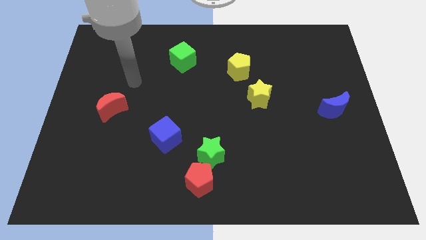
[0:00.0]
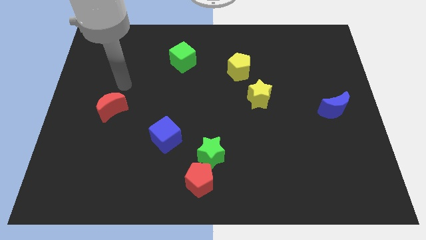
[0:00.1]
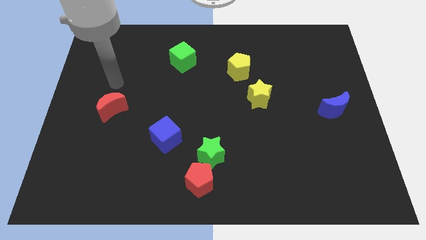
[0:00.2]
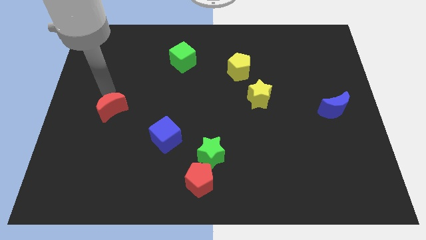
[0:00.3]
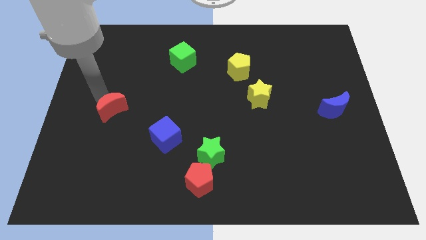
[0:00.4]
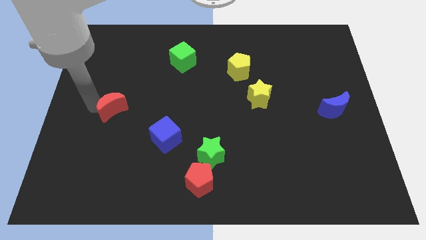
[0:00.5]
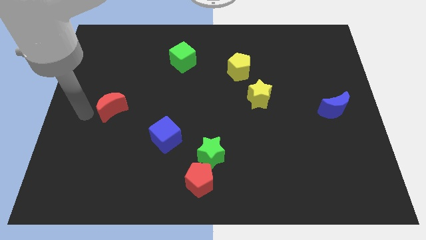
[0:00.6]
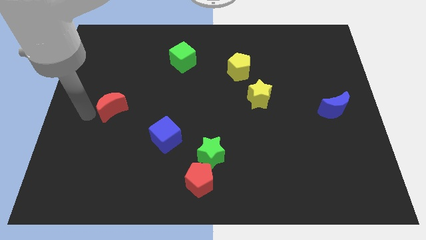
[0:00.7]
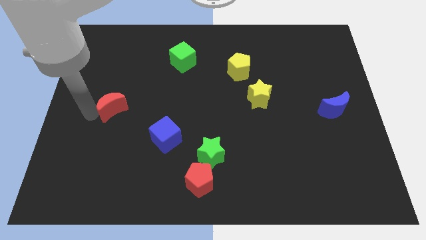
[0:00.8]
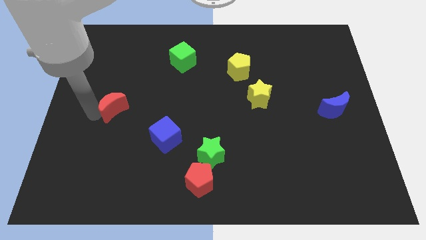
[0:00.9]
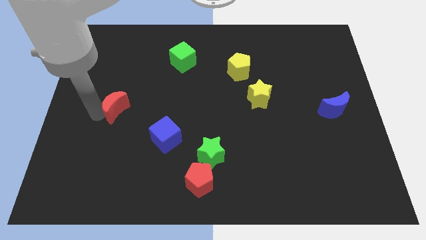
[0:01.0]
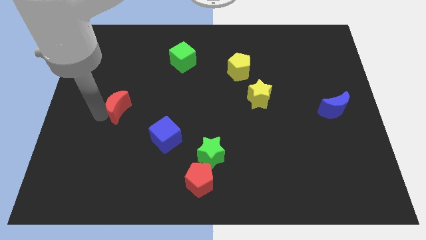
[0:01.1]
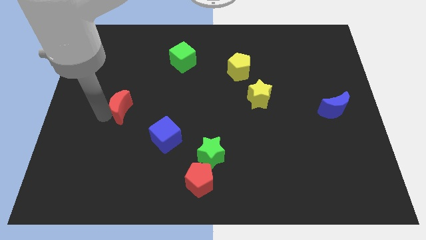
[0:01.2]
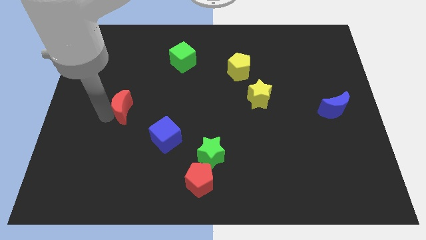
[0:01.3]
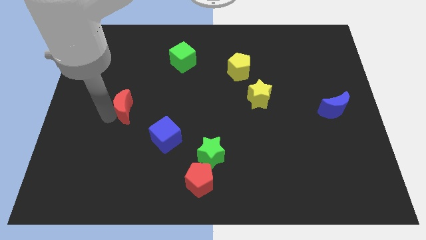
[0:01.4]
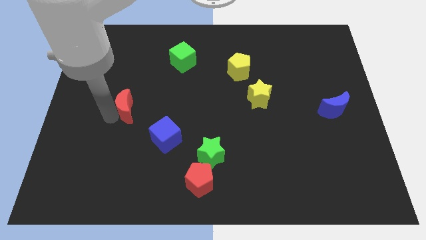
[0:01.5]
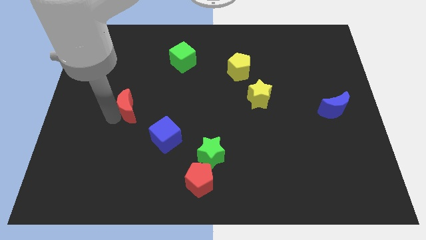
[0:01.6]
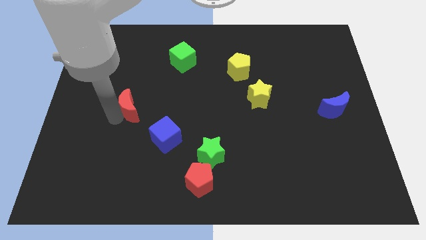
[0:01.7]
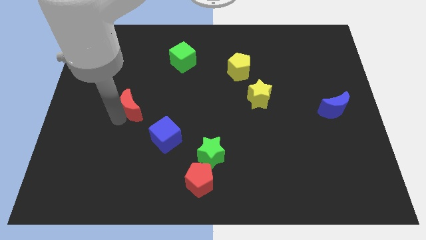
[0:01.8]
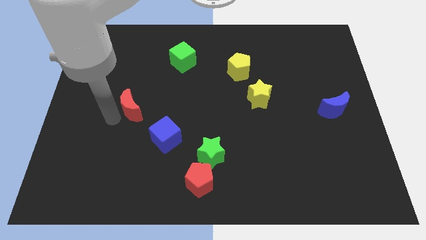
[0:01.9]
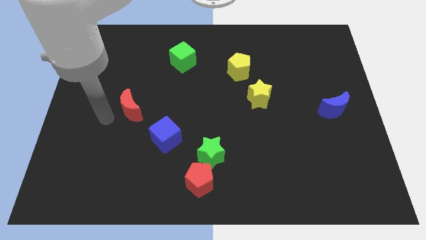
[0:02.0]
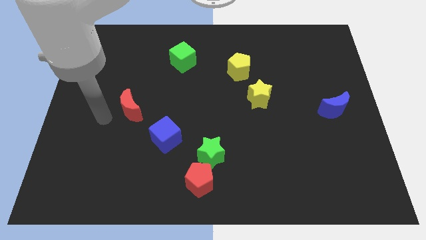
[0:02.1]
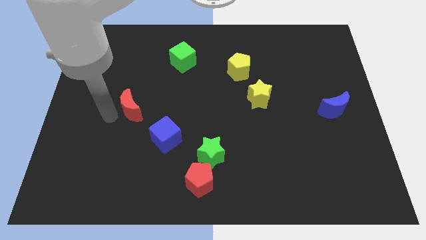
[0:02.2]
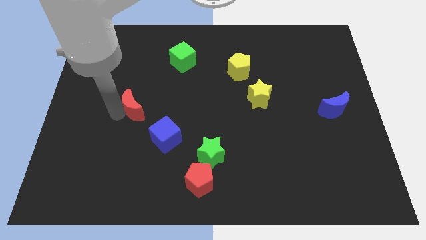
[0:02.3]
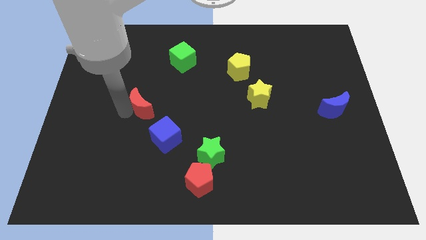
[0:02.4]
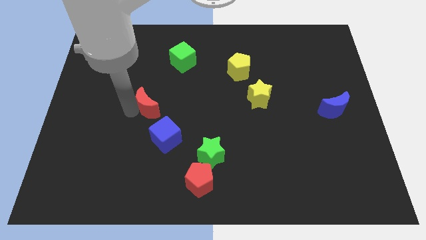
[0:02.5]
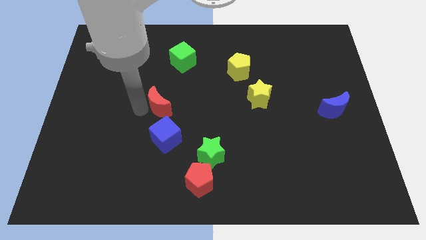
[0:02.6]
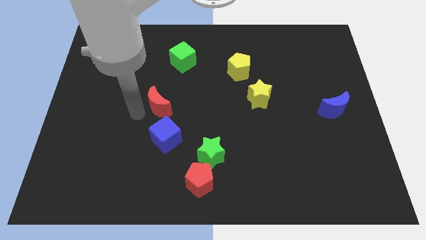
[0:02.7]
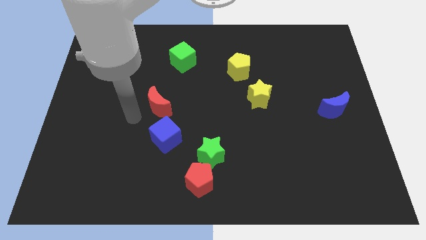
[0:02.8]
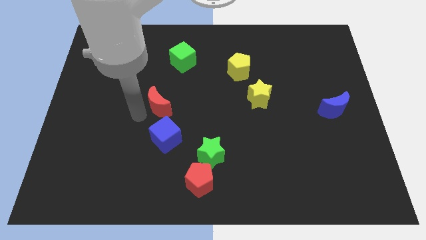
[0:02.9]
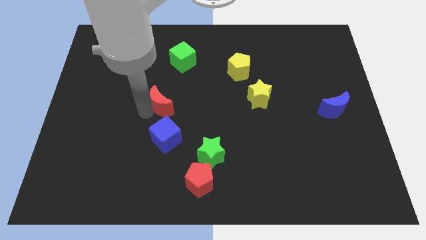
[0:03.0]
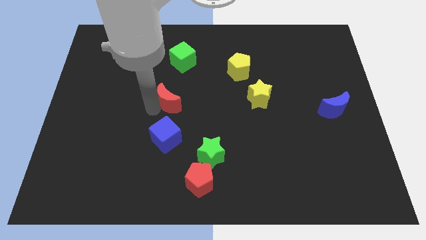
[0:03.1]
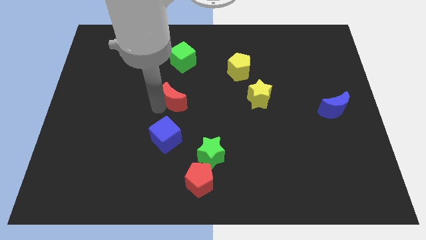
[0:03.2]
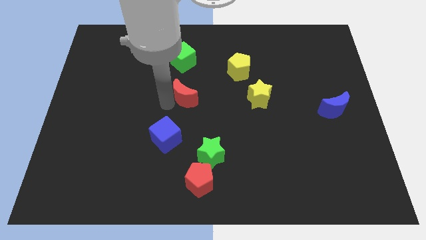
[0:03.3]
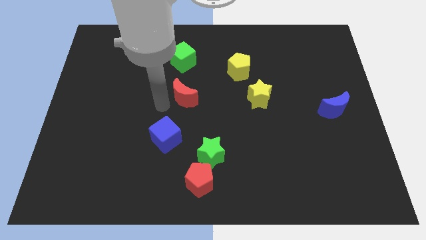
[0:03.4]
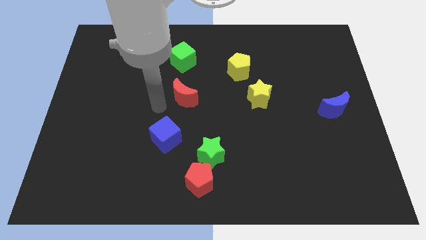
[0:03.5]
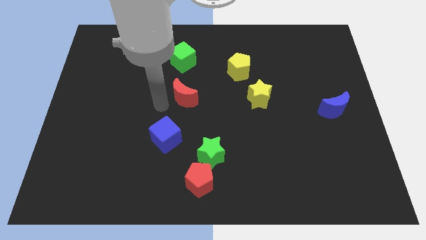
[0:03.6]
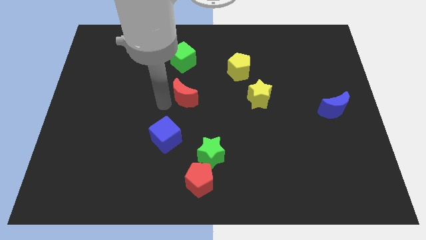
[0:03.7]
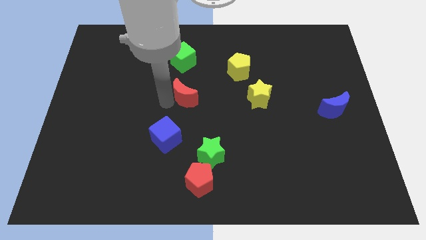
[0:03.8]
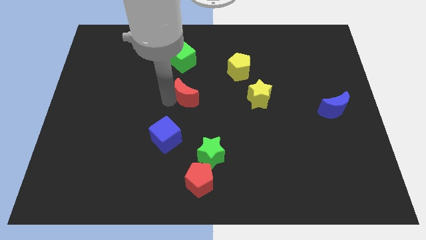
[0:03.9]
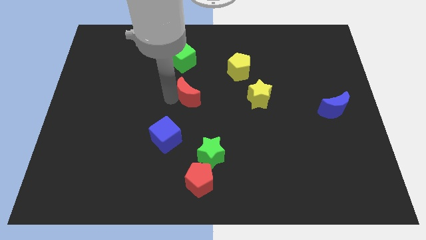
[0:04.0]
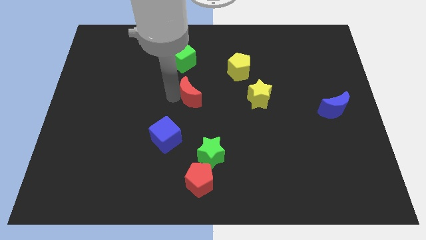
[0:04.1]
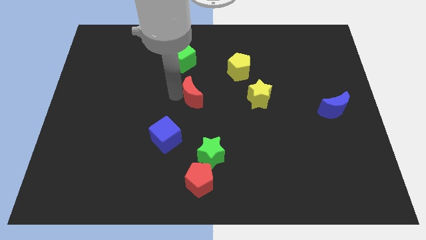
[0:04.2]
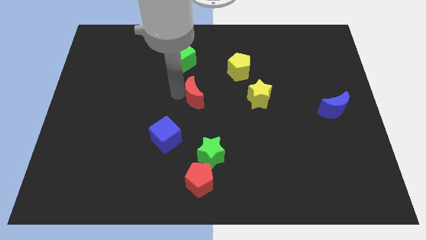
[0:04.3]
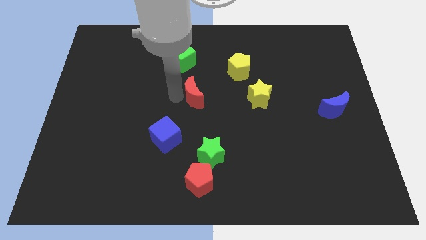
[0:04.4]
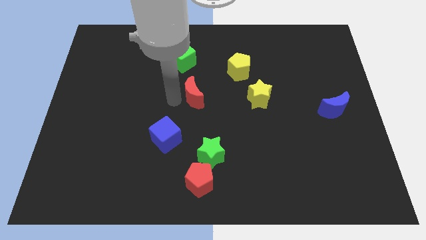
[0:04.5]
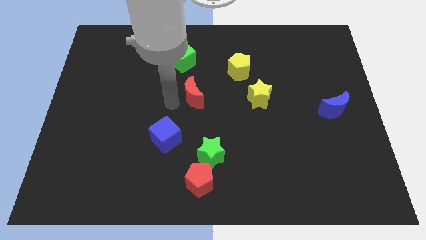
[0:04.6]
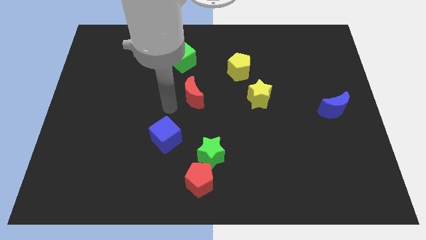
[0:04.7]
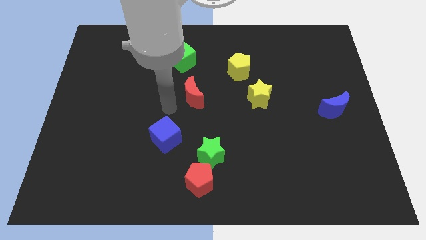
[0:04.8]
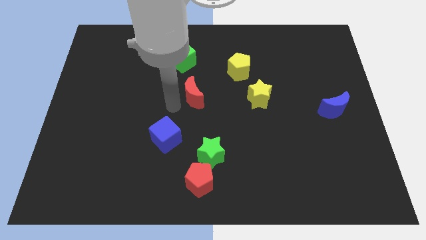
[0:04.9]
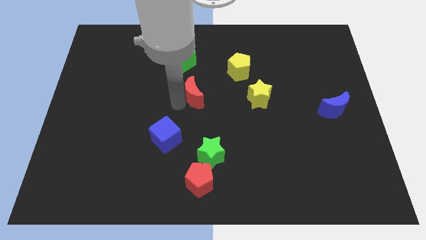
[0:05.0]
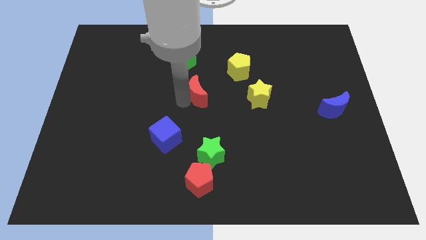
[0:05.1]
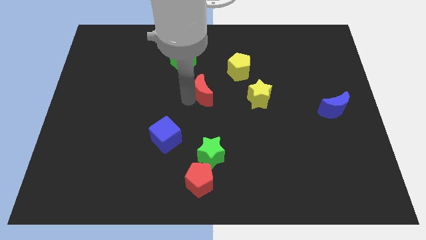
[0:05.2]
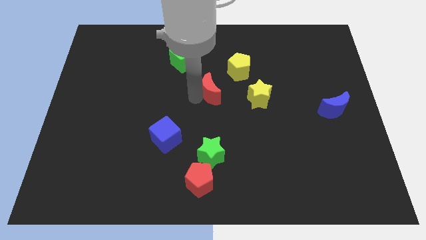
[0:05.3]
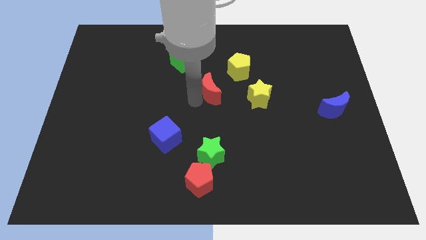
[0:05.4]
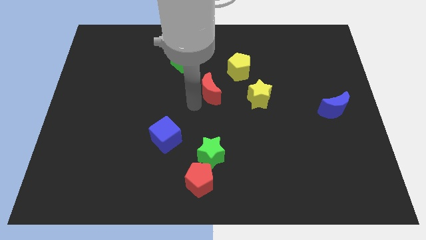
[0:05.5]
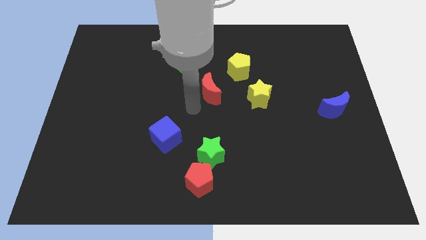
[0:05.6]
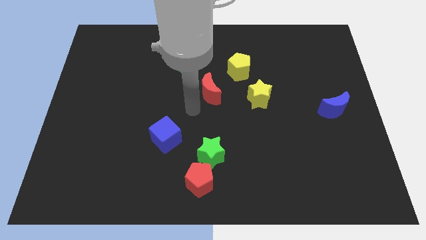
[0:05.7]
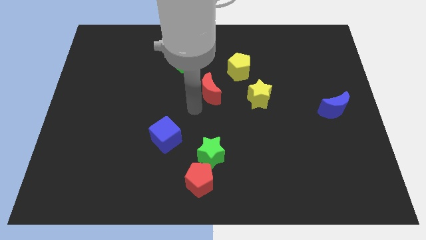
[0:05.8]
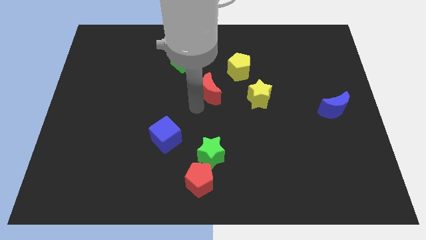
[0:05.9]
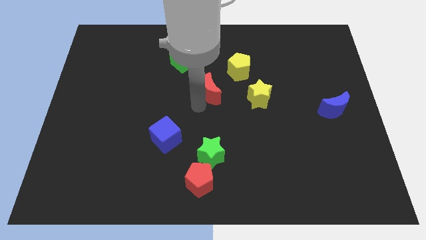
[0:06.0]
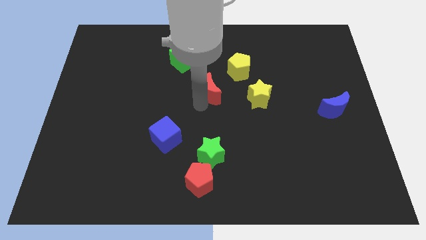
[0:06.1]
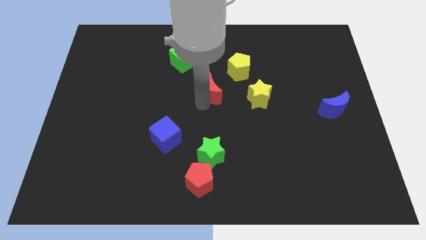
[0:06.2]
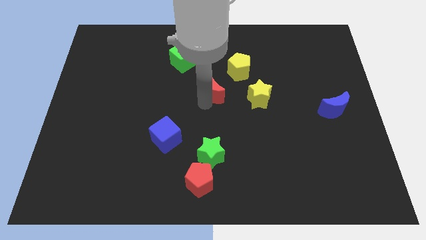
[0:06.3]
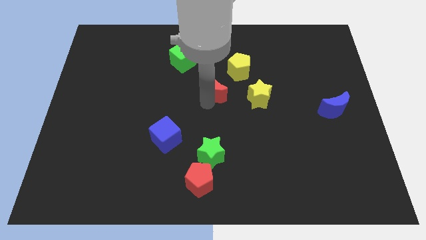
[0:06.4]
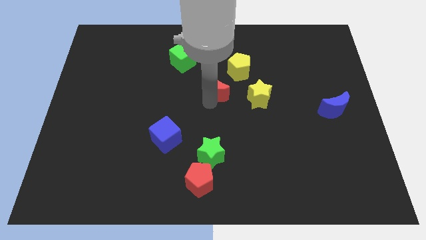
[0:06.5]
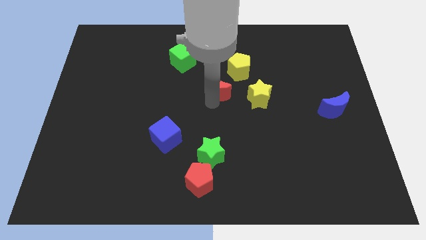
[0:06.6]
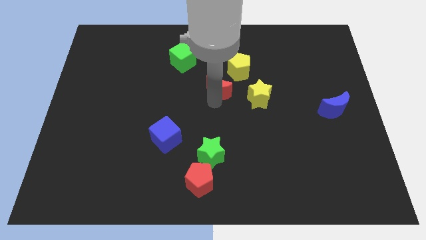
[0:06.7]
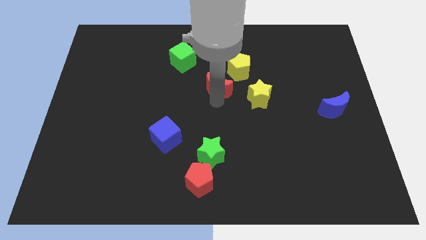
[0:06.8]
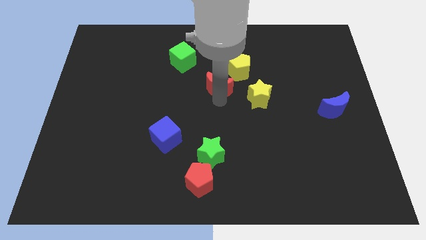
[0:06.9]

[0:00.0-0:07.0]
put the red moon to the top left of the yellow star
